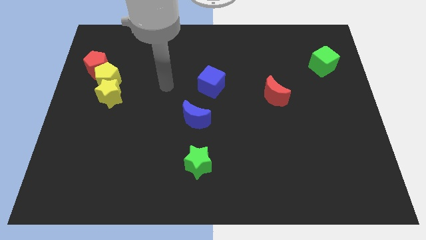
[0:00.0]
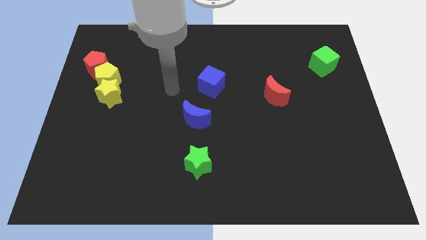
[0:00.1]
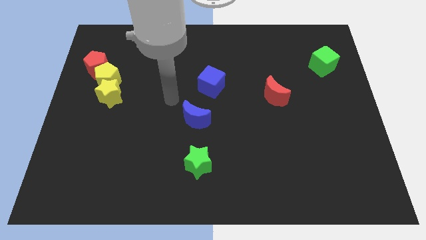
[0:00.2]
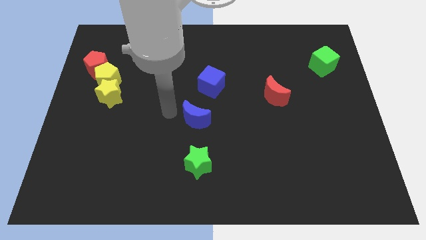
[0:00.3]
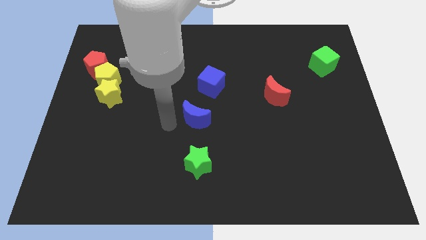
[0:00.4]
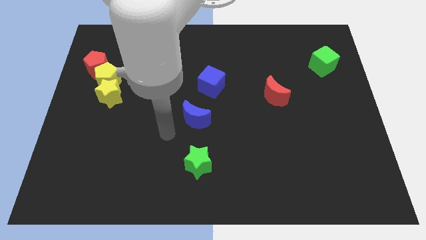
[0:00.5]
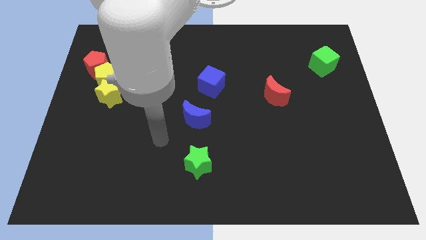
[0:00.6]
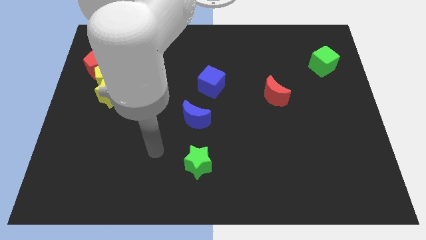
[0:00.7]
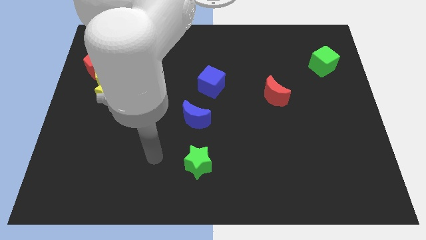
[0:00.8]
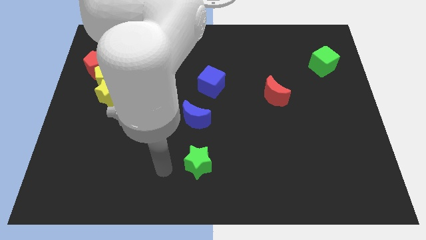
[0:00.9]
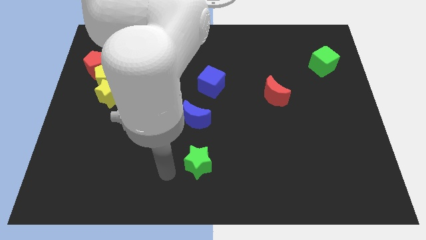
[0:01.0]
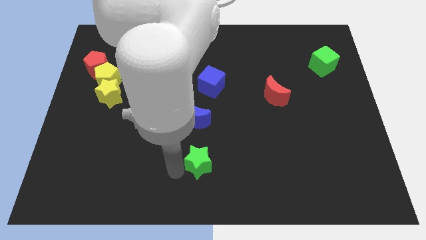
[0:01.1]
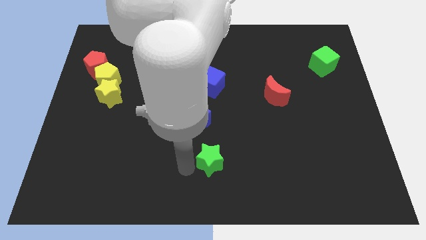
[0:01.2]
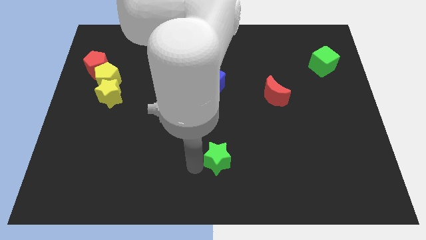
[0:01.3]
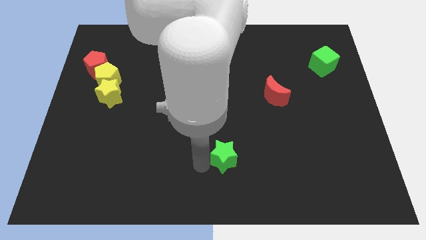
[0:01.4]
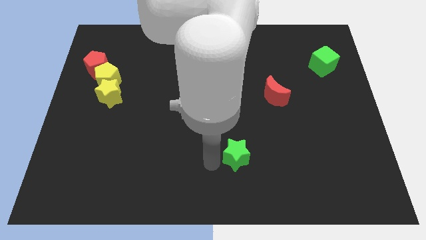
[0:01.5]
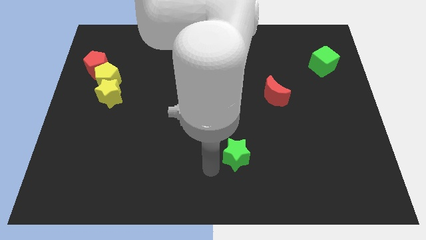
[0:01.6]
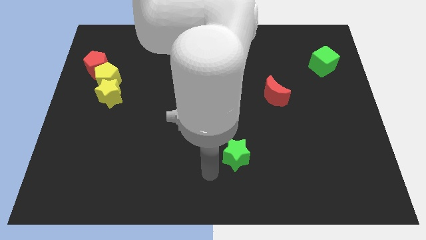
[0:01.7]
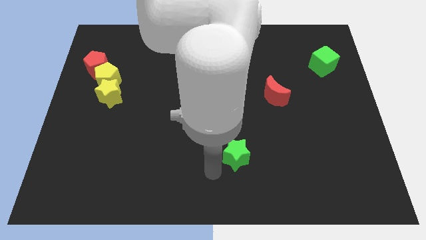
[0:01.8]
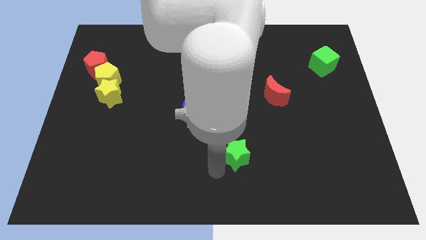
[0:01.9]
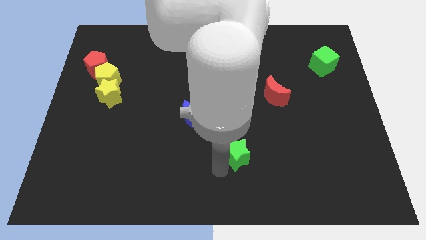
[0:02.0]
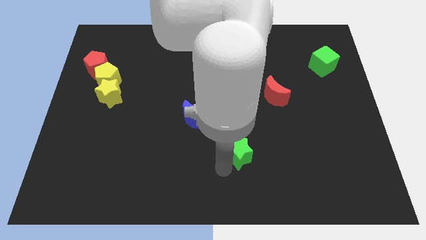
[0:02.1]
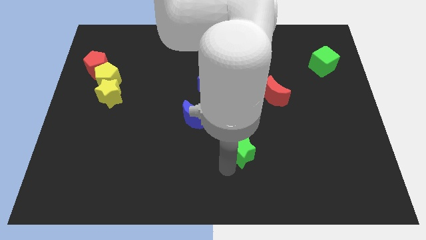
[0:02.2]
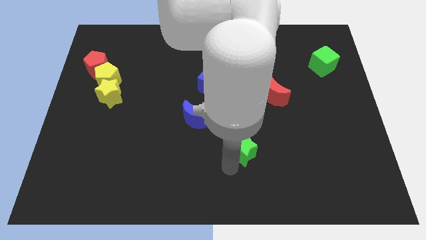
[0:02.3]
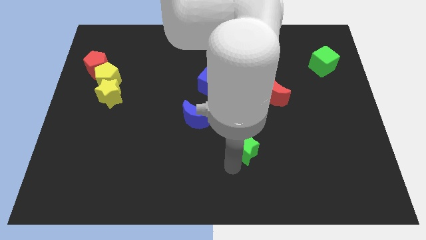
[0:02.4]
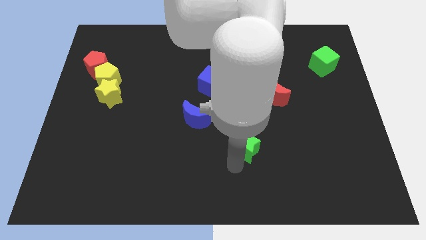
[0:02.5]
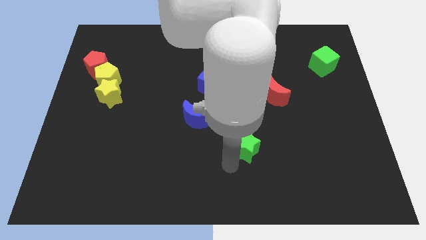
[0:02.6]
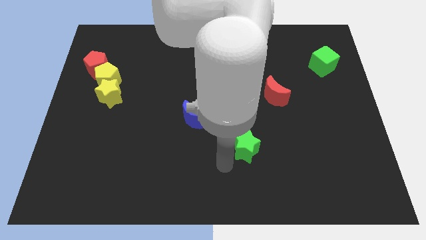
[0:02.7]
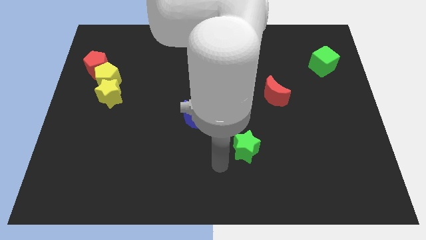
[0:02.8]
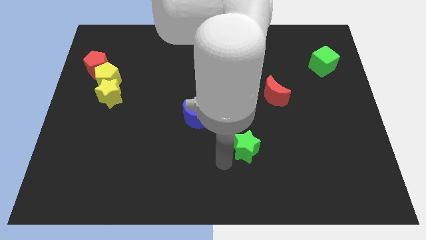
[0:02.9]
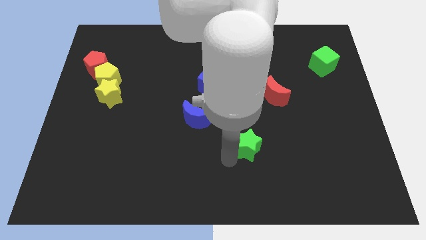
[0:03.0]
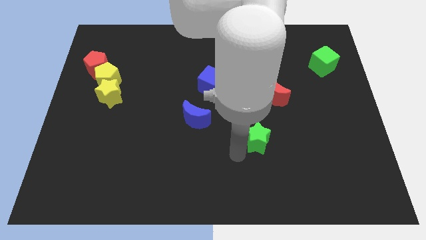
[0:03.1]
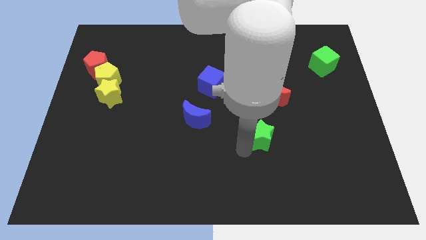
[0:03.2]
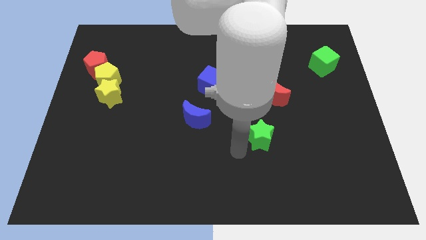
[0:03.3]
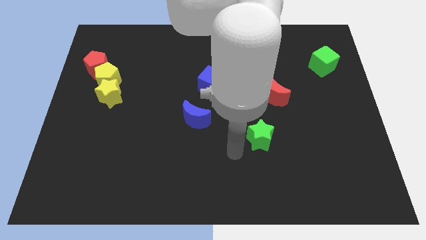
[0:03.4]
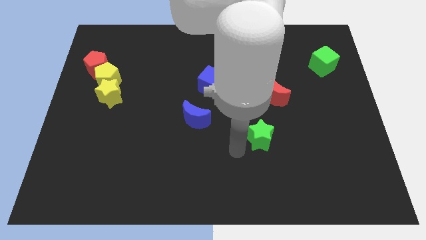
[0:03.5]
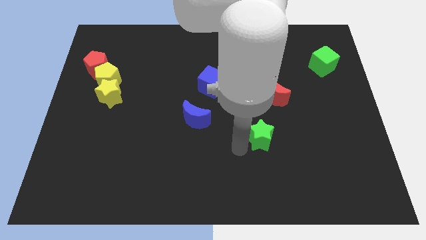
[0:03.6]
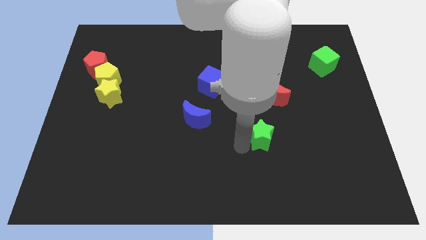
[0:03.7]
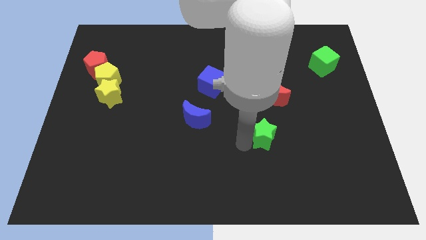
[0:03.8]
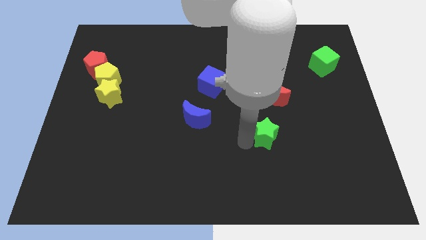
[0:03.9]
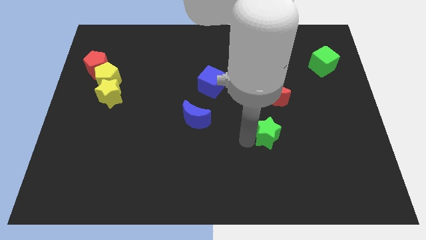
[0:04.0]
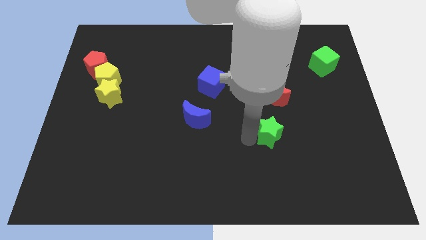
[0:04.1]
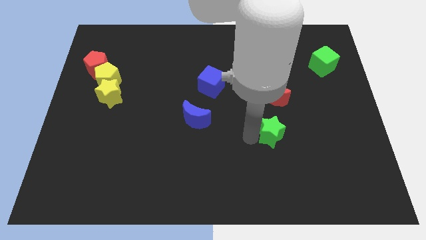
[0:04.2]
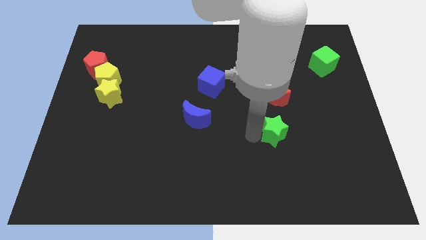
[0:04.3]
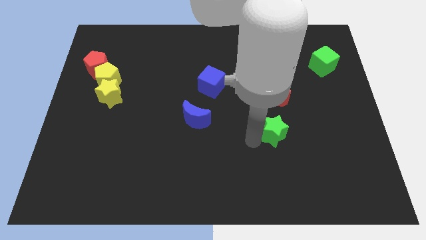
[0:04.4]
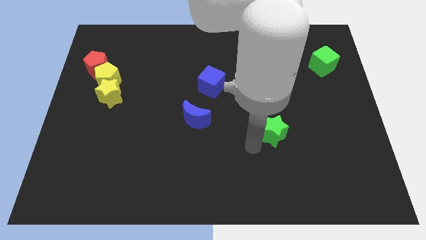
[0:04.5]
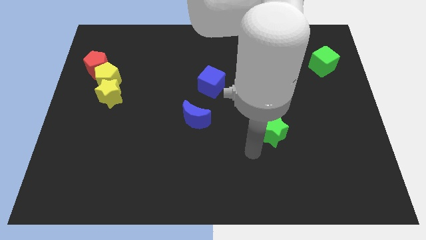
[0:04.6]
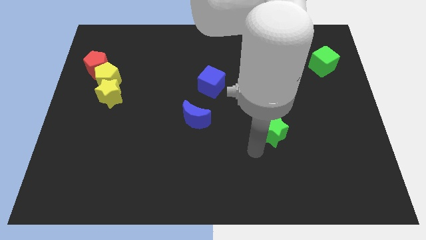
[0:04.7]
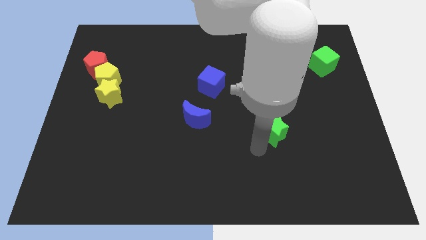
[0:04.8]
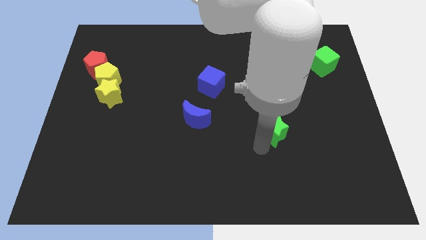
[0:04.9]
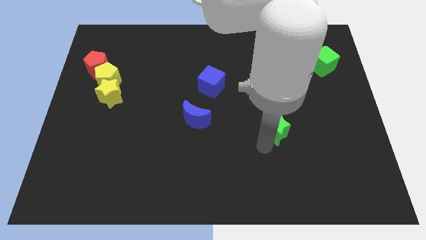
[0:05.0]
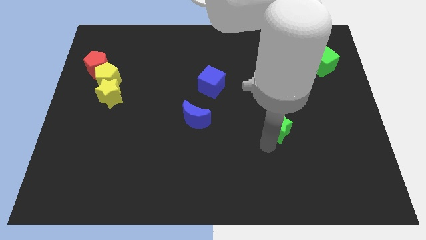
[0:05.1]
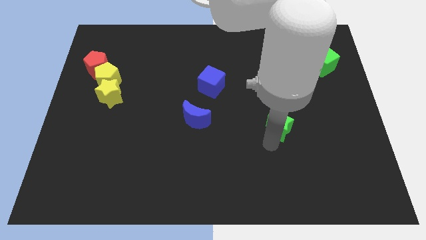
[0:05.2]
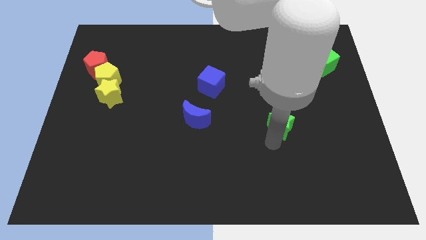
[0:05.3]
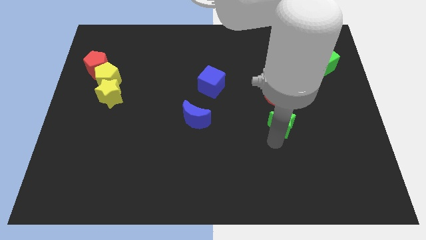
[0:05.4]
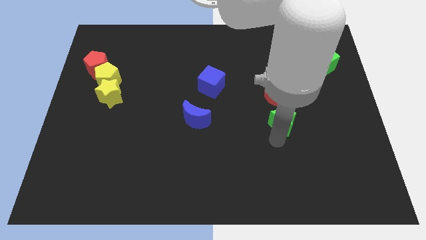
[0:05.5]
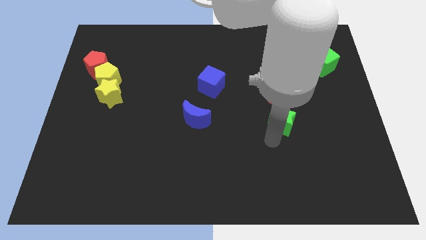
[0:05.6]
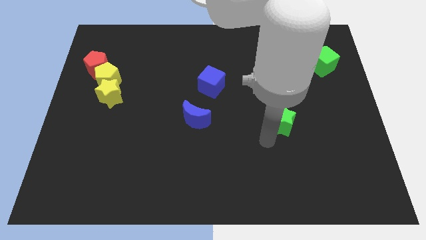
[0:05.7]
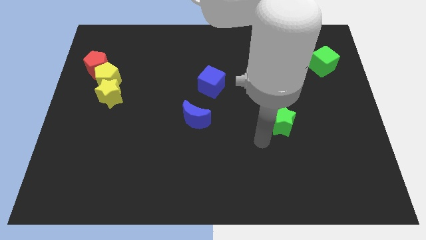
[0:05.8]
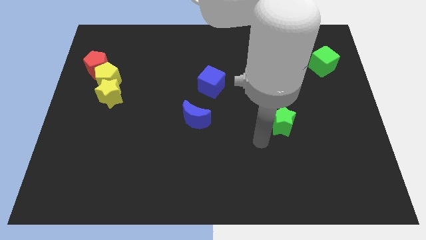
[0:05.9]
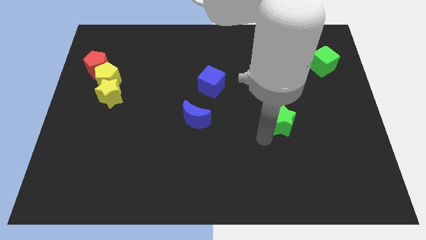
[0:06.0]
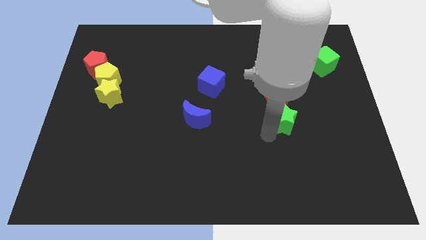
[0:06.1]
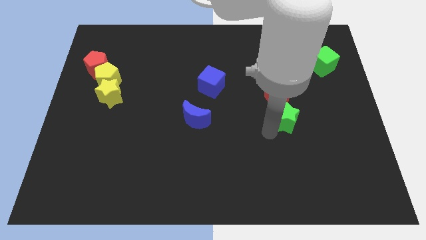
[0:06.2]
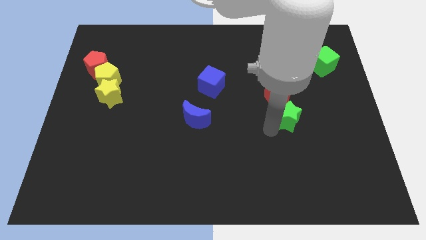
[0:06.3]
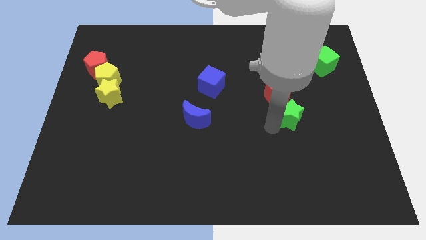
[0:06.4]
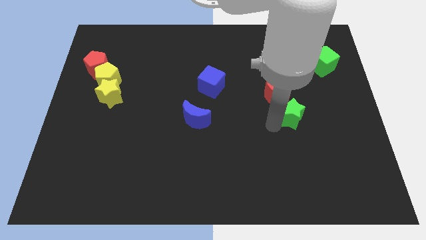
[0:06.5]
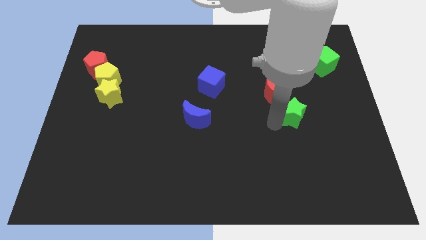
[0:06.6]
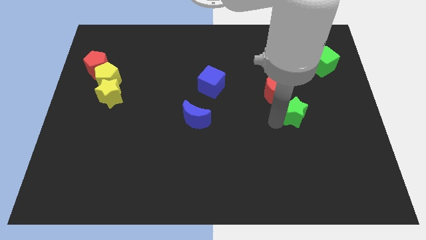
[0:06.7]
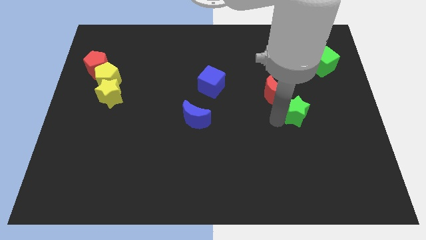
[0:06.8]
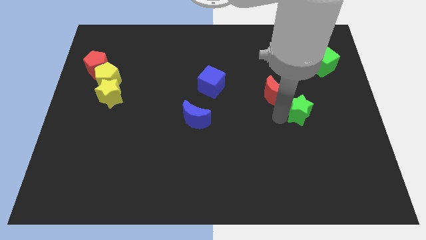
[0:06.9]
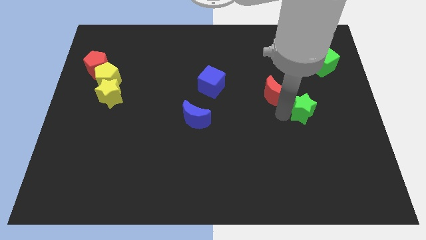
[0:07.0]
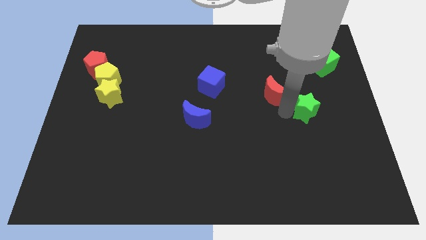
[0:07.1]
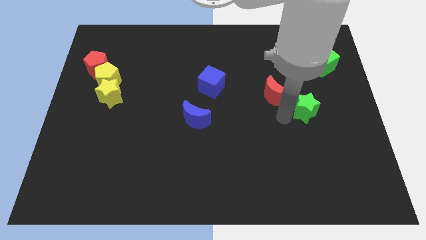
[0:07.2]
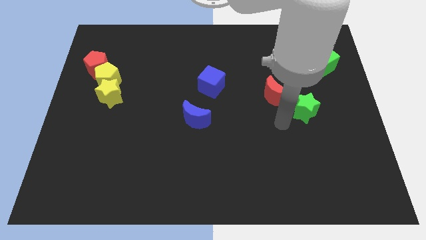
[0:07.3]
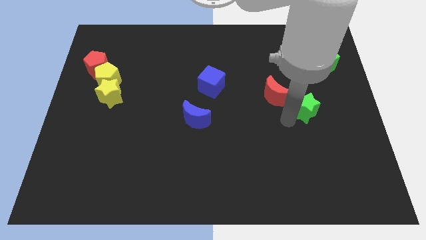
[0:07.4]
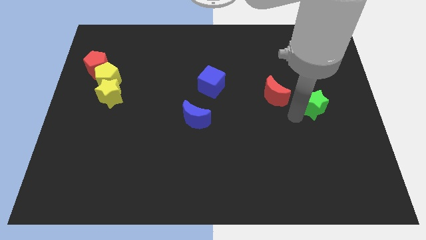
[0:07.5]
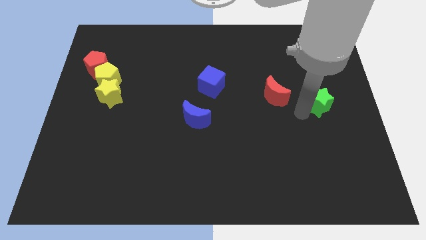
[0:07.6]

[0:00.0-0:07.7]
put the green star to the bottom of the green cube

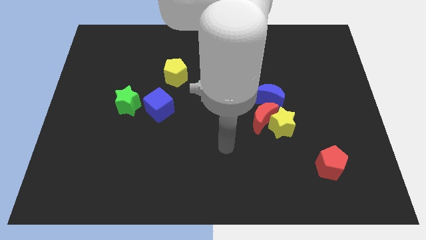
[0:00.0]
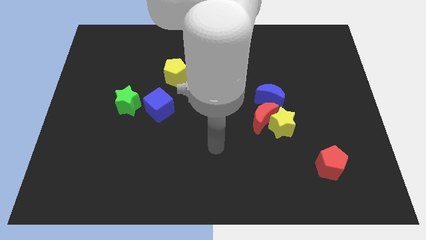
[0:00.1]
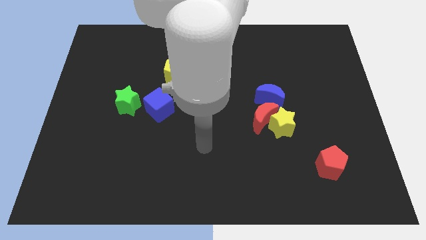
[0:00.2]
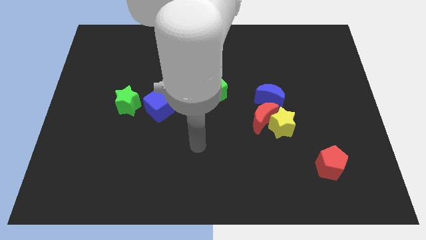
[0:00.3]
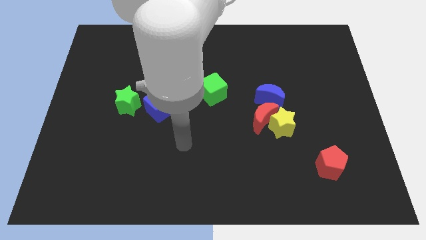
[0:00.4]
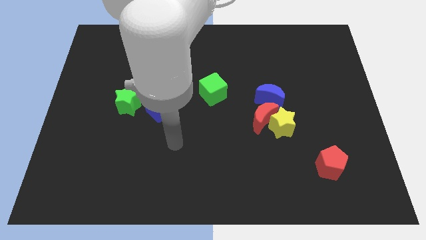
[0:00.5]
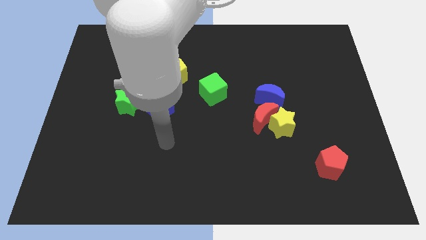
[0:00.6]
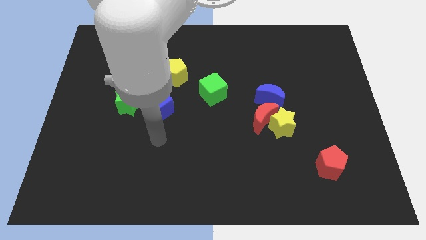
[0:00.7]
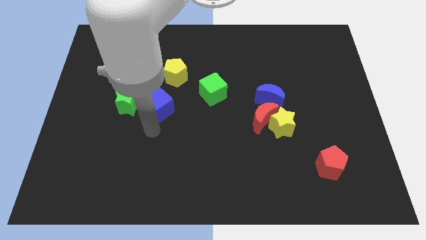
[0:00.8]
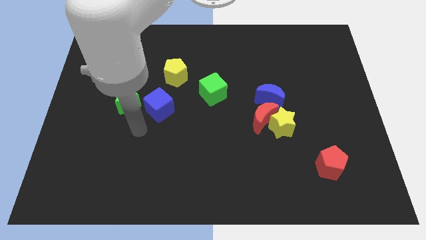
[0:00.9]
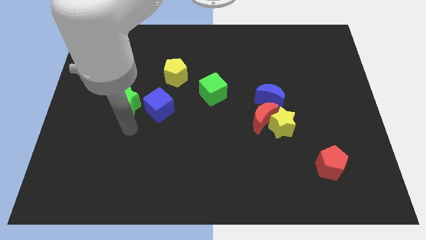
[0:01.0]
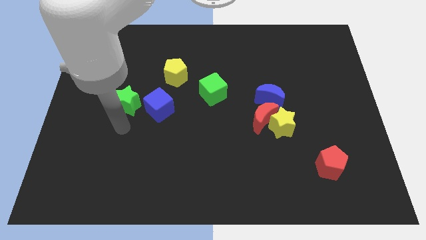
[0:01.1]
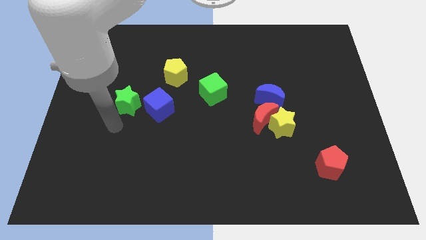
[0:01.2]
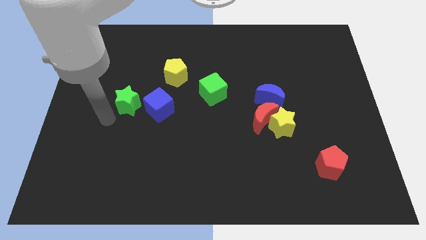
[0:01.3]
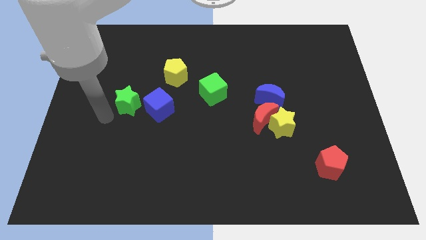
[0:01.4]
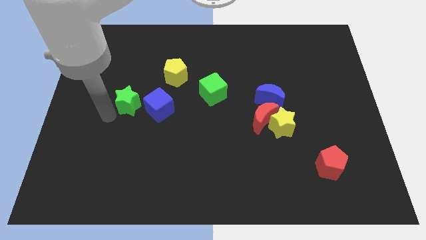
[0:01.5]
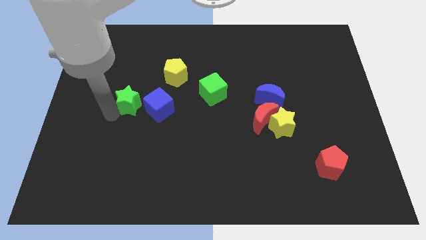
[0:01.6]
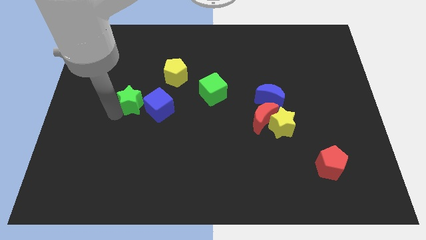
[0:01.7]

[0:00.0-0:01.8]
push the green star to the bottom left of the yellow pentagon
